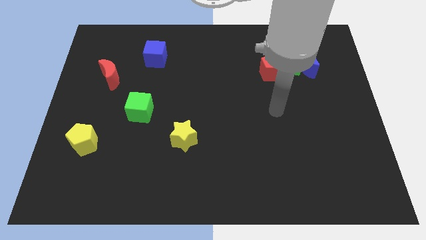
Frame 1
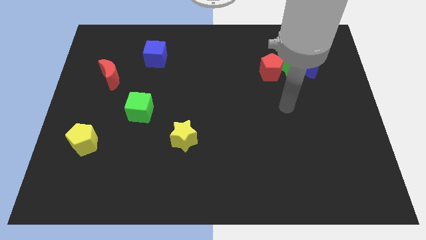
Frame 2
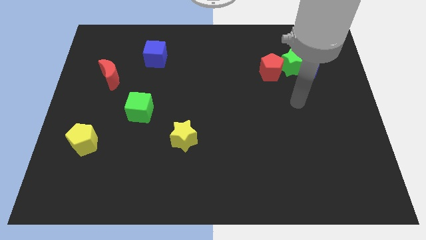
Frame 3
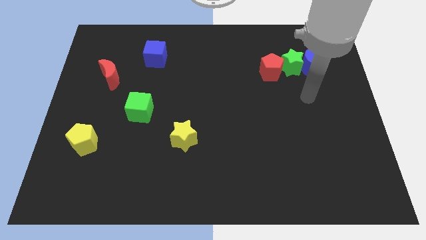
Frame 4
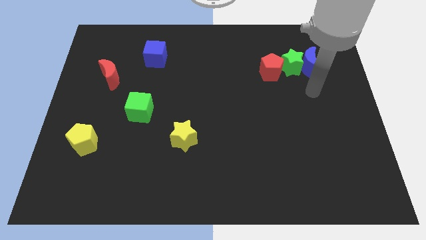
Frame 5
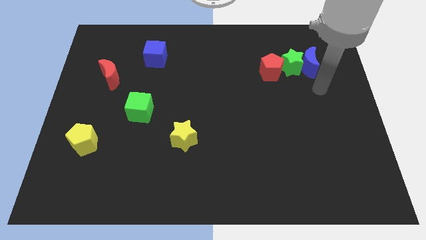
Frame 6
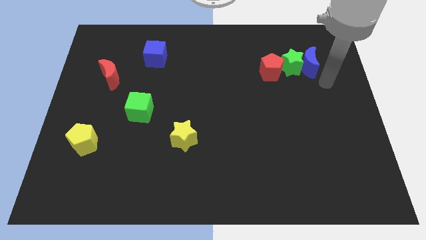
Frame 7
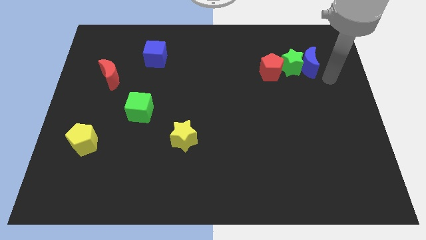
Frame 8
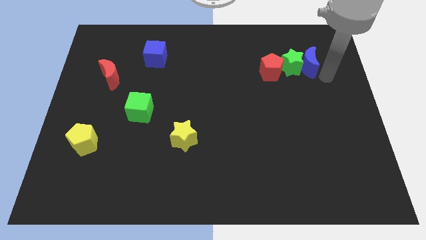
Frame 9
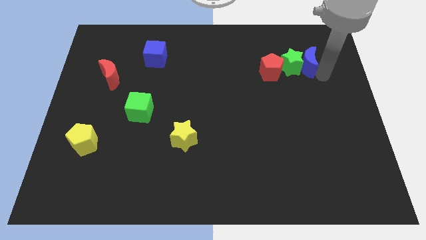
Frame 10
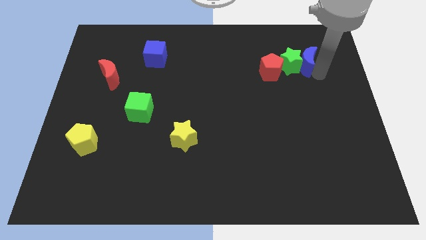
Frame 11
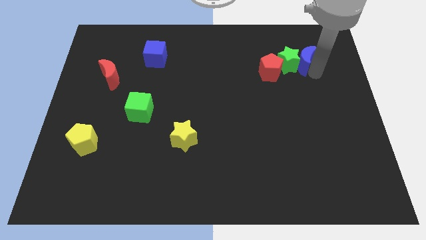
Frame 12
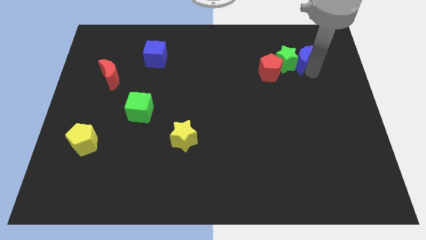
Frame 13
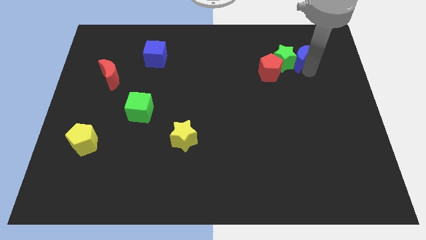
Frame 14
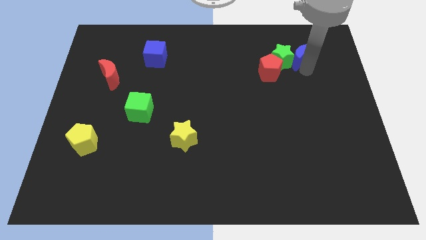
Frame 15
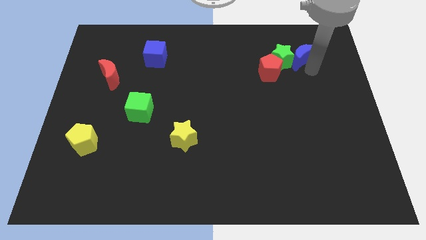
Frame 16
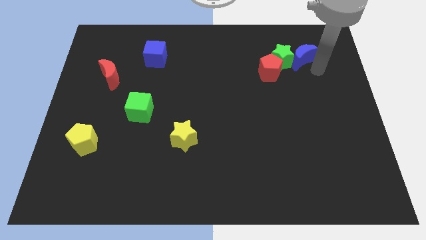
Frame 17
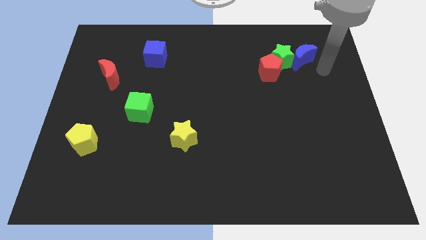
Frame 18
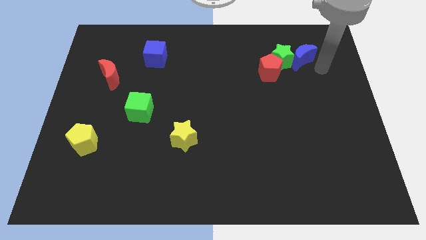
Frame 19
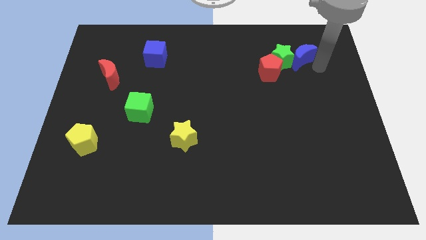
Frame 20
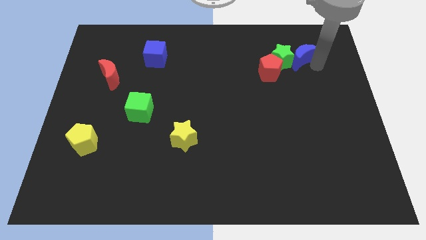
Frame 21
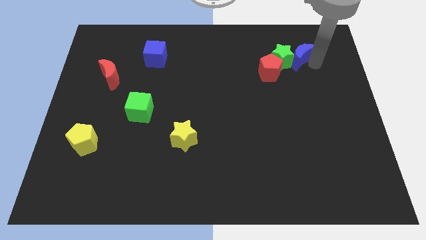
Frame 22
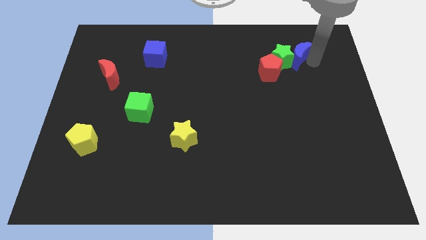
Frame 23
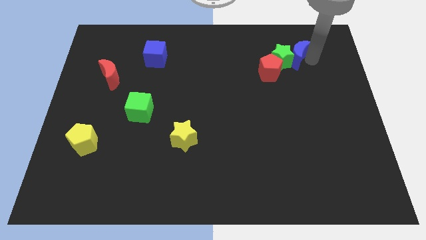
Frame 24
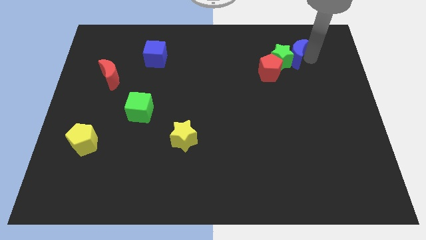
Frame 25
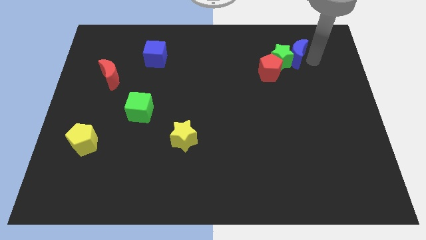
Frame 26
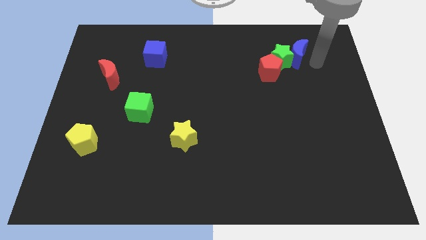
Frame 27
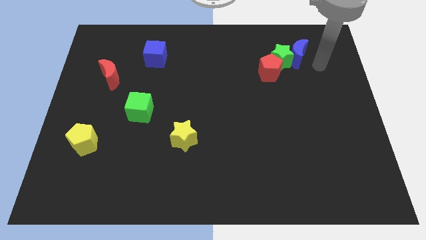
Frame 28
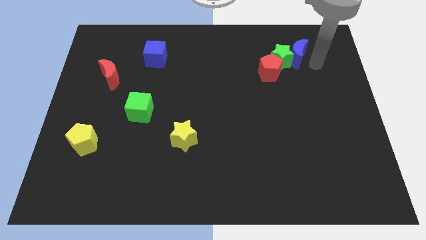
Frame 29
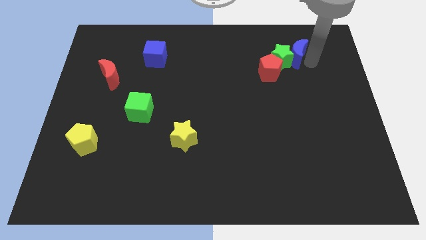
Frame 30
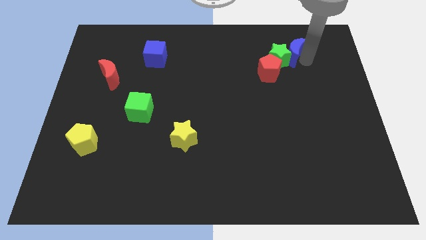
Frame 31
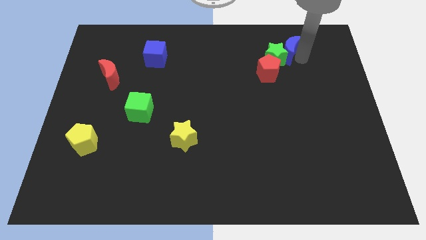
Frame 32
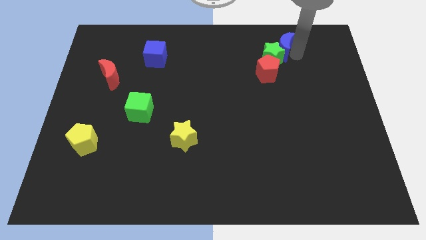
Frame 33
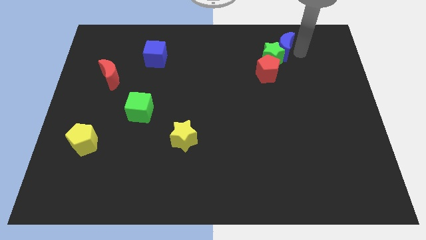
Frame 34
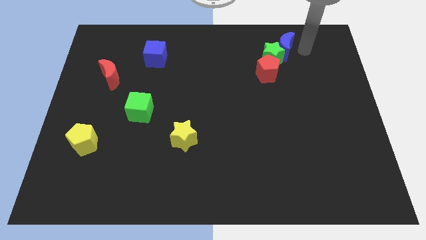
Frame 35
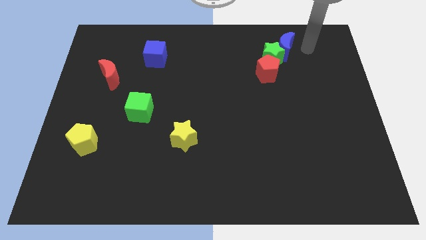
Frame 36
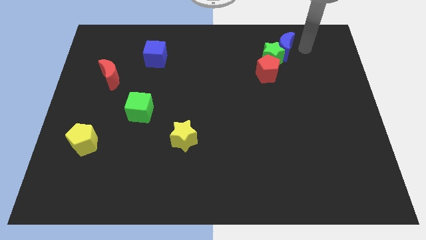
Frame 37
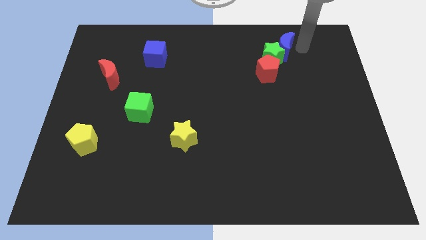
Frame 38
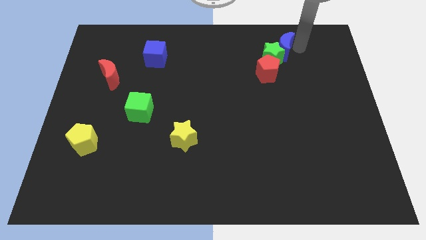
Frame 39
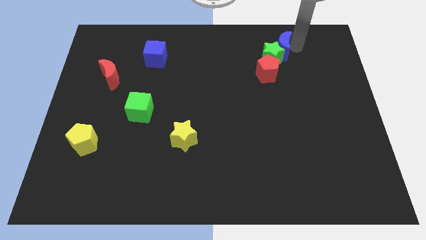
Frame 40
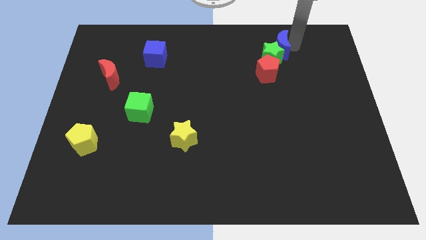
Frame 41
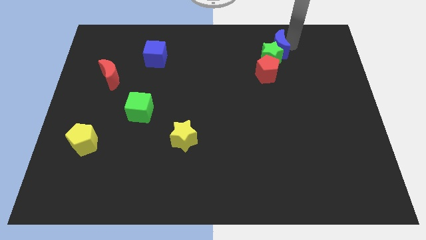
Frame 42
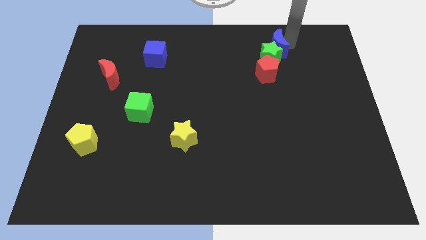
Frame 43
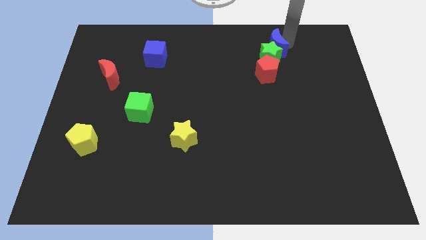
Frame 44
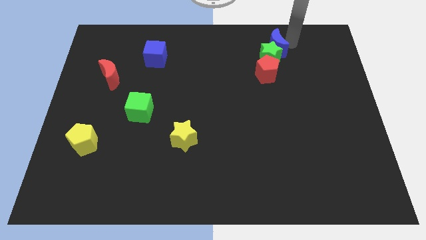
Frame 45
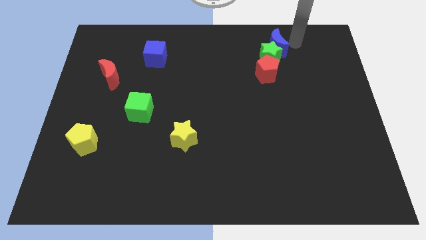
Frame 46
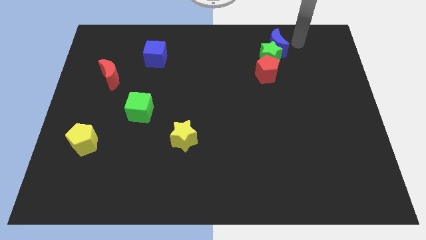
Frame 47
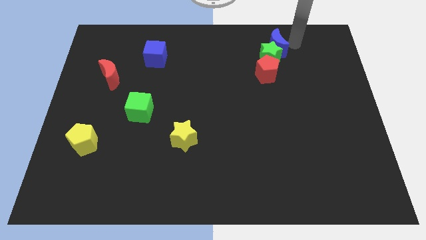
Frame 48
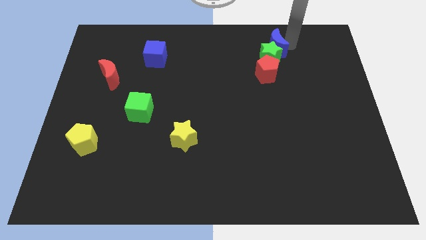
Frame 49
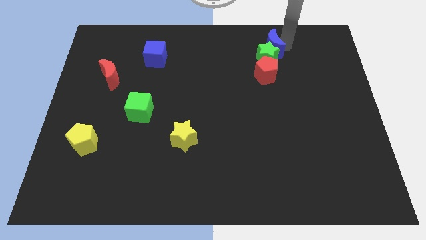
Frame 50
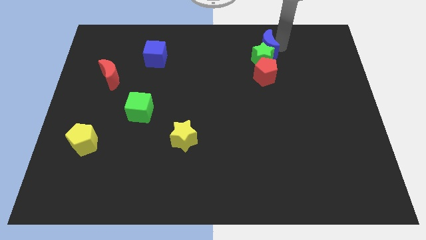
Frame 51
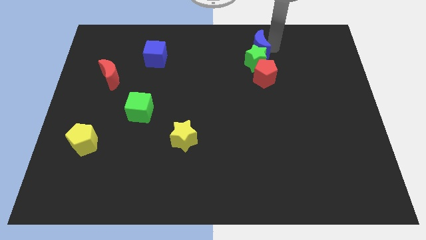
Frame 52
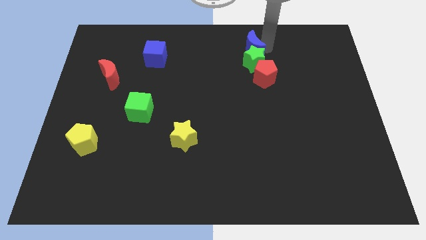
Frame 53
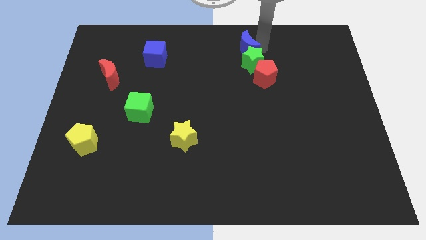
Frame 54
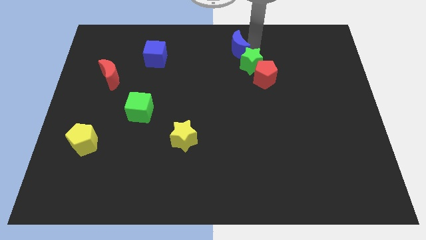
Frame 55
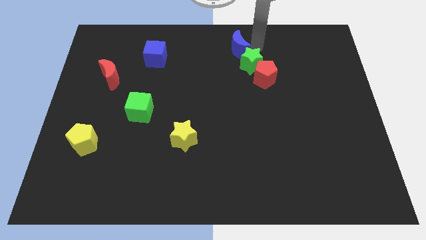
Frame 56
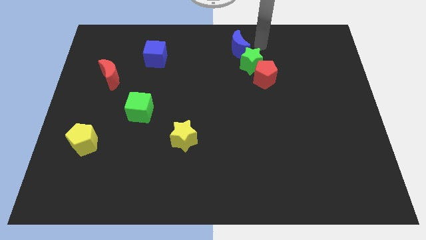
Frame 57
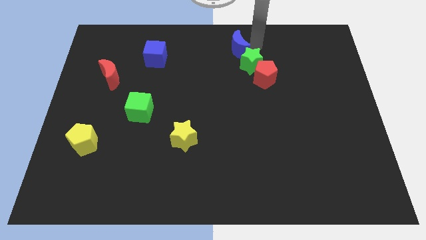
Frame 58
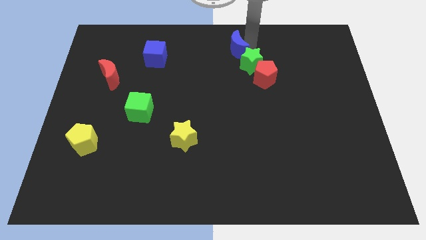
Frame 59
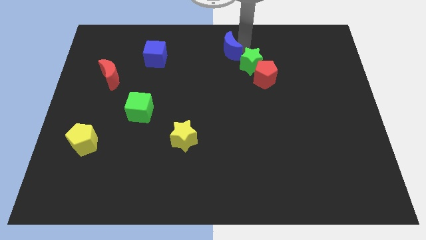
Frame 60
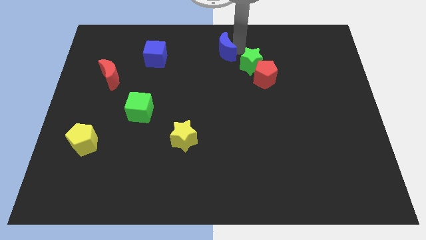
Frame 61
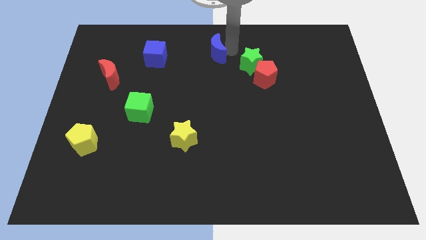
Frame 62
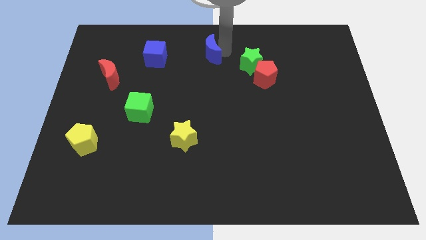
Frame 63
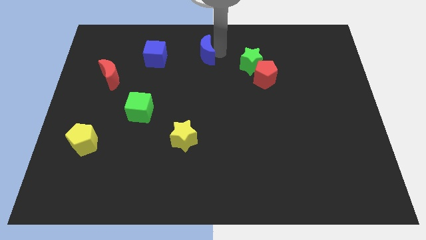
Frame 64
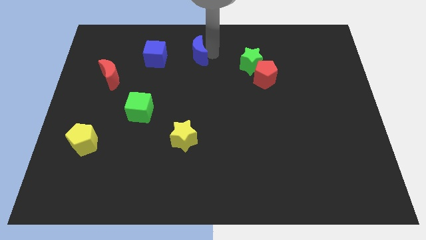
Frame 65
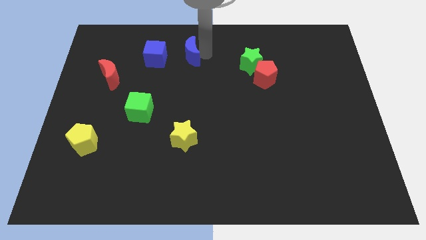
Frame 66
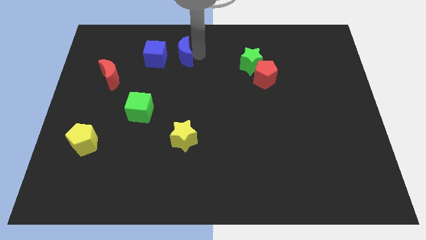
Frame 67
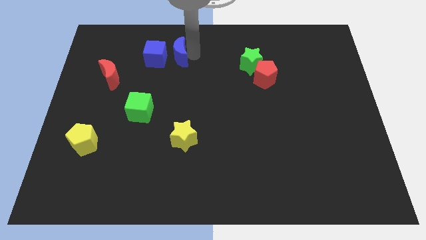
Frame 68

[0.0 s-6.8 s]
push the blue moon close to the blue cube

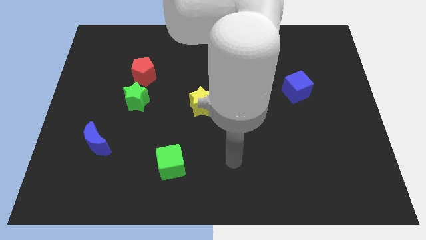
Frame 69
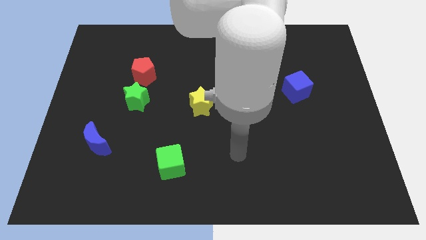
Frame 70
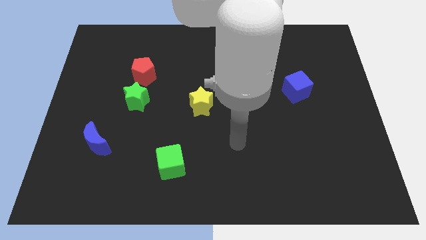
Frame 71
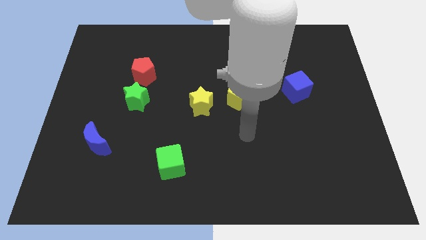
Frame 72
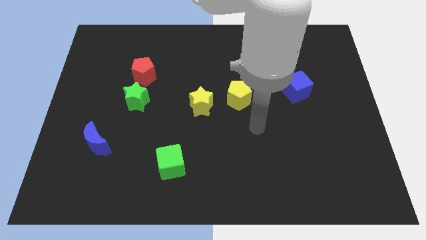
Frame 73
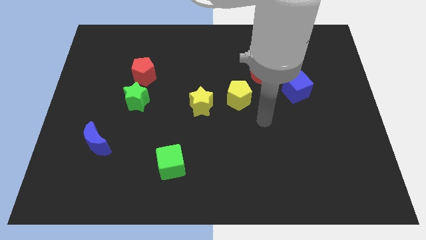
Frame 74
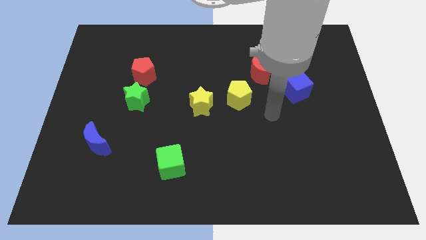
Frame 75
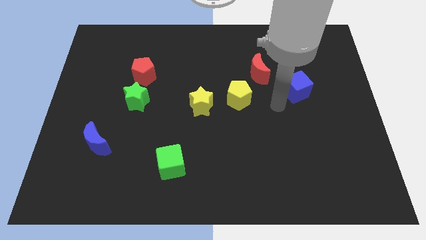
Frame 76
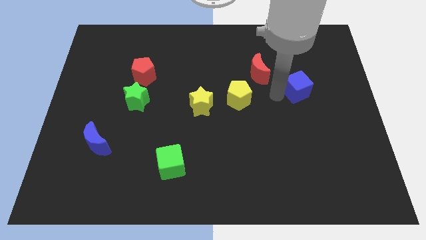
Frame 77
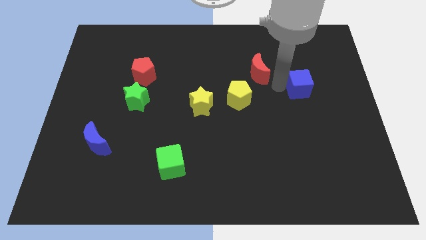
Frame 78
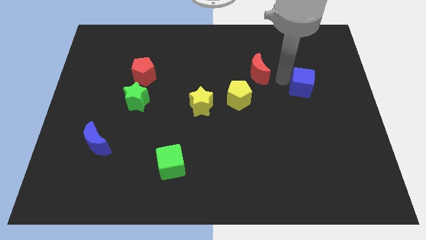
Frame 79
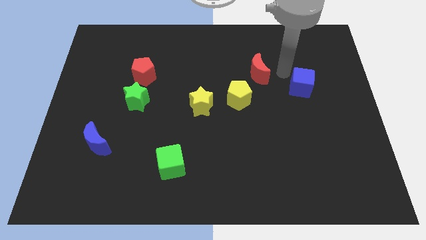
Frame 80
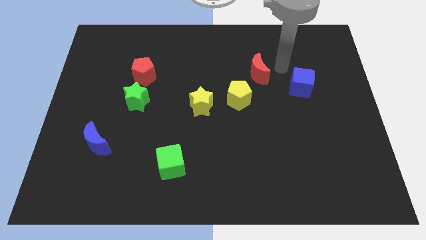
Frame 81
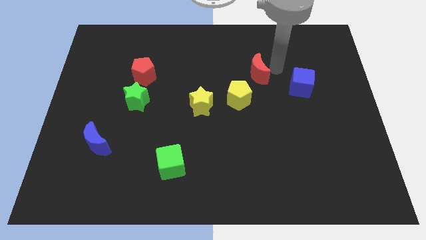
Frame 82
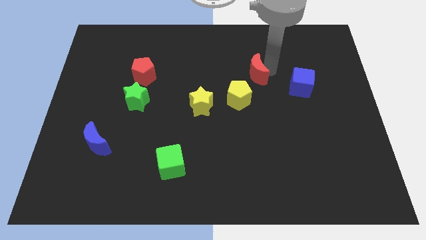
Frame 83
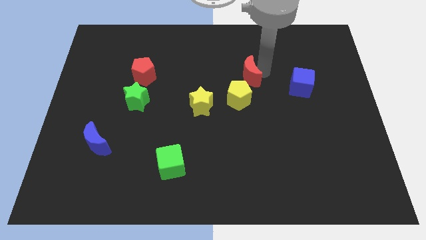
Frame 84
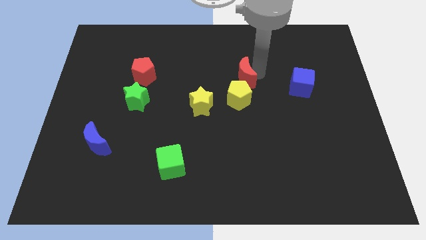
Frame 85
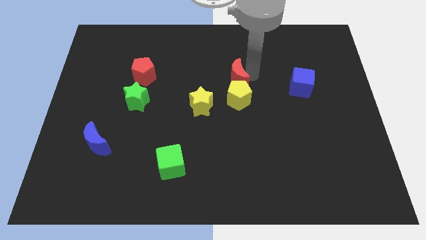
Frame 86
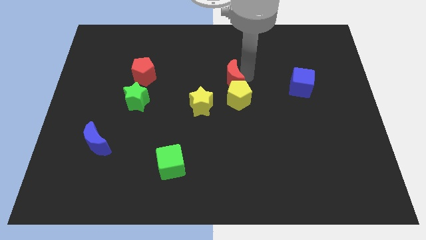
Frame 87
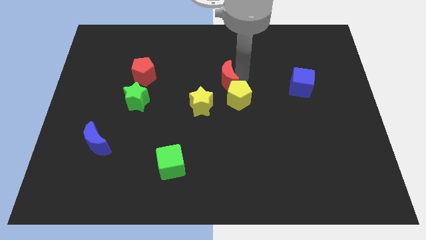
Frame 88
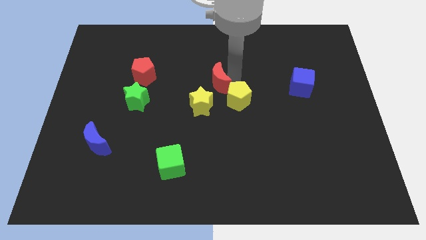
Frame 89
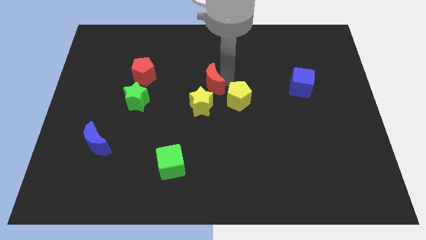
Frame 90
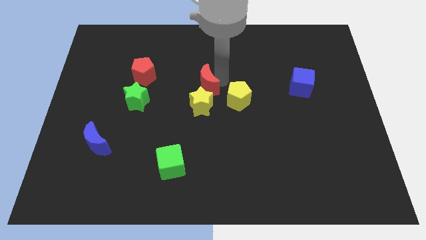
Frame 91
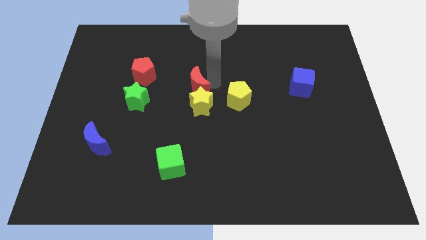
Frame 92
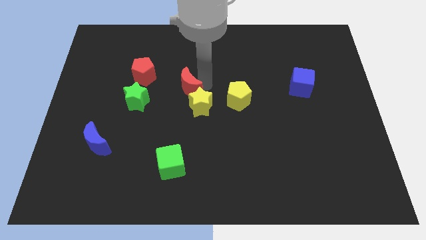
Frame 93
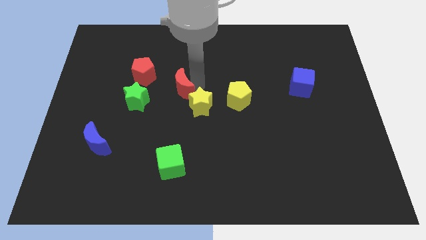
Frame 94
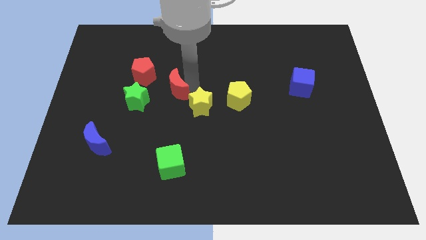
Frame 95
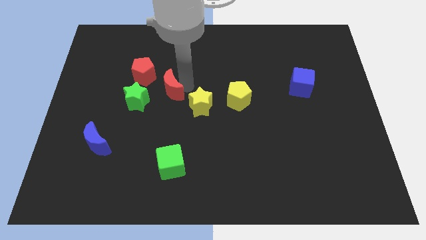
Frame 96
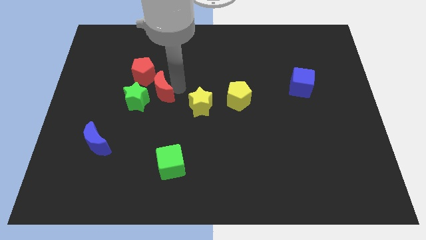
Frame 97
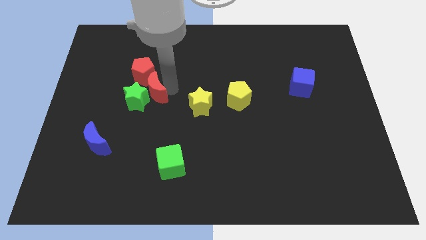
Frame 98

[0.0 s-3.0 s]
push the red moon towards the green star
